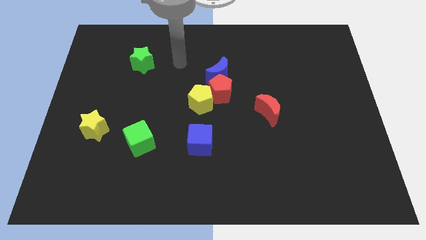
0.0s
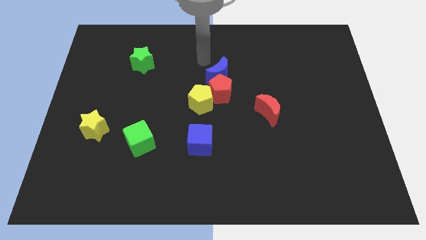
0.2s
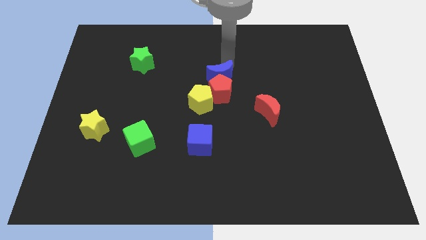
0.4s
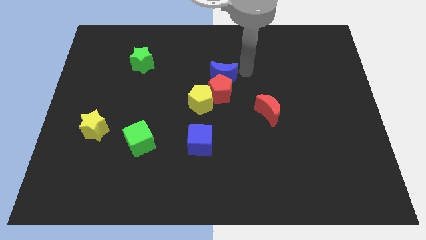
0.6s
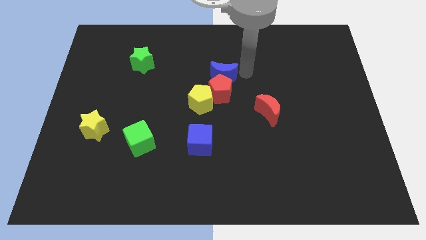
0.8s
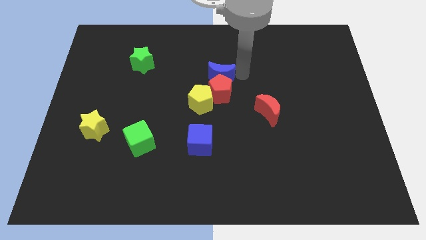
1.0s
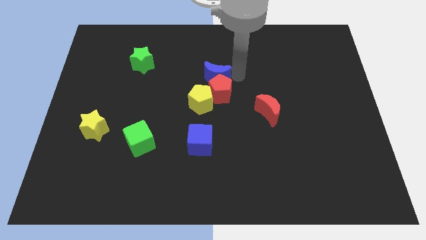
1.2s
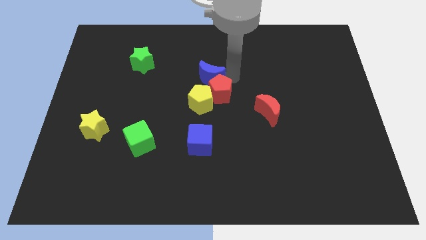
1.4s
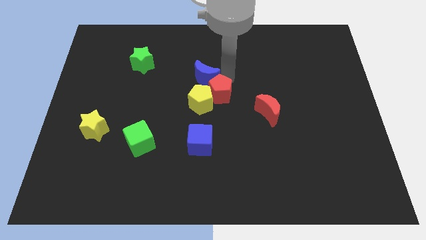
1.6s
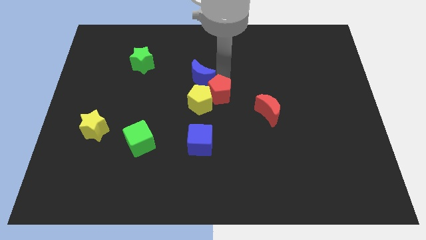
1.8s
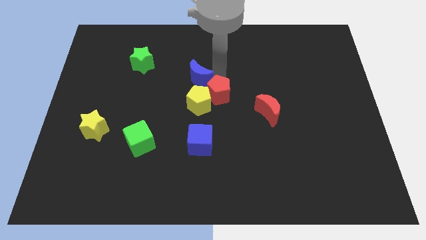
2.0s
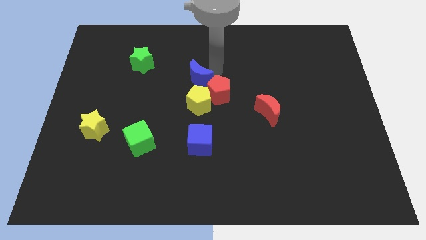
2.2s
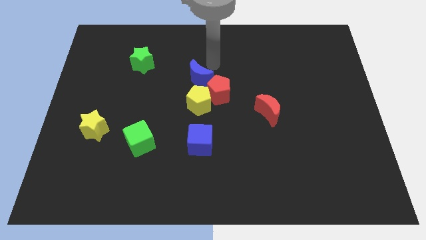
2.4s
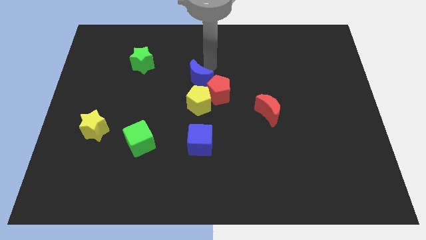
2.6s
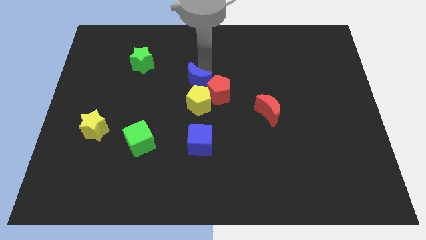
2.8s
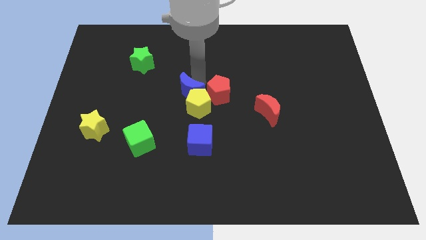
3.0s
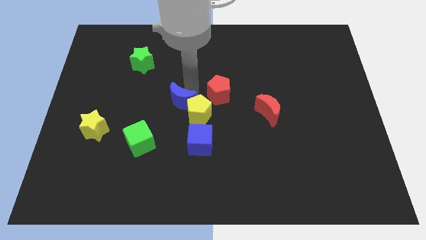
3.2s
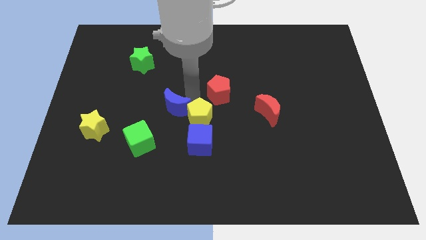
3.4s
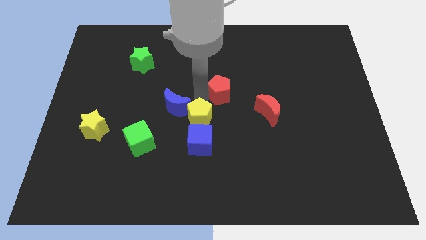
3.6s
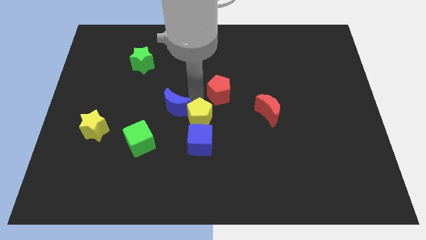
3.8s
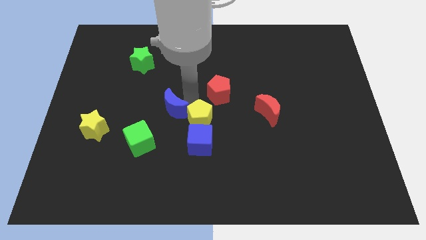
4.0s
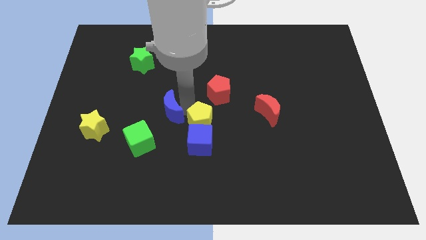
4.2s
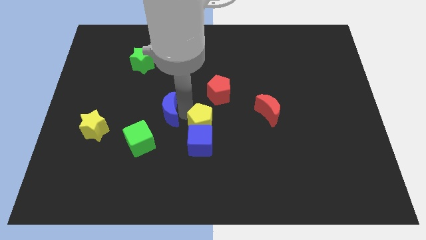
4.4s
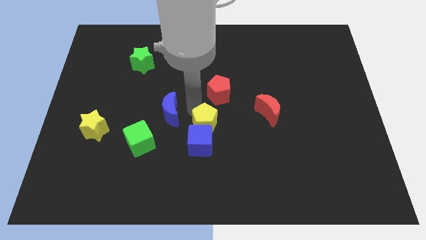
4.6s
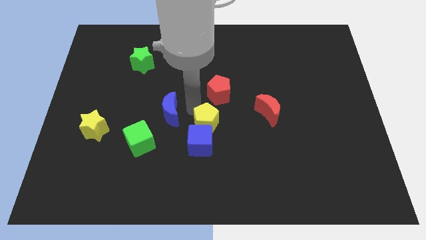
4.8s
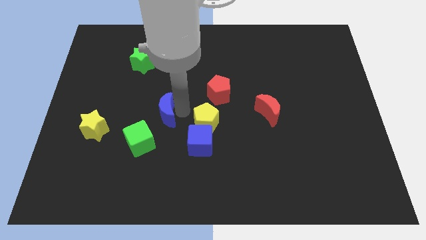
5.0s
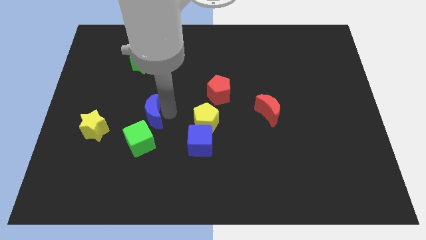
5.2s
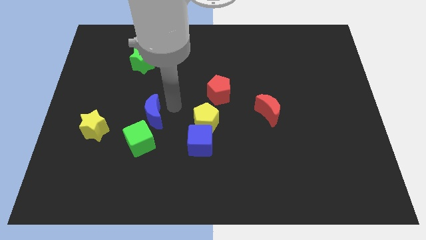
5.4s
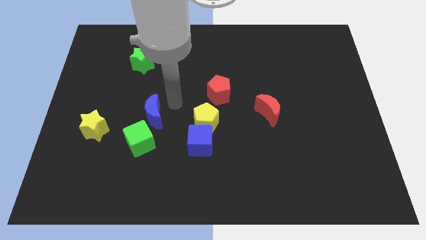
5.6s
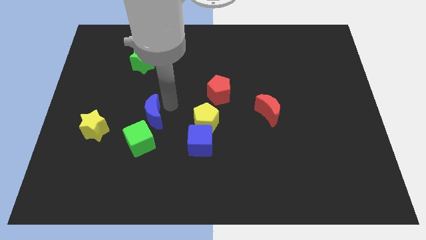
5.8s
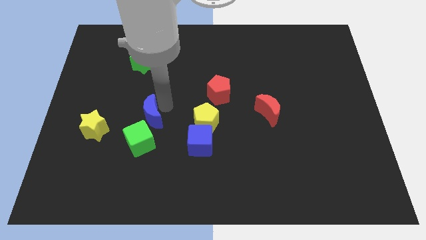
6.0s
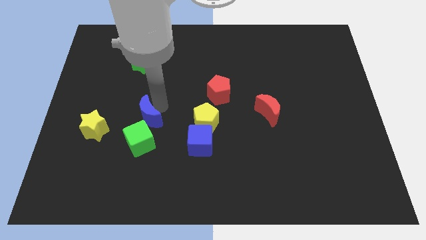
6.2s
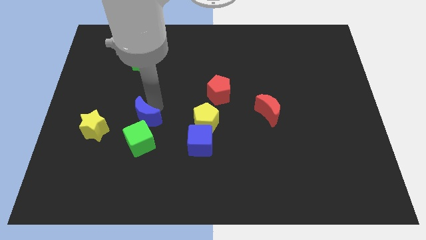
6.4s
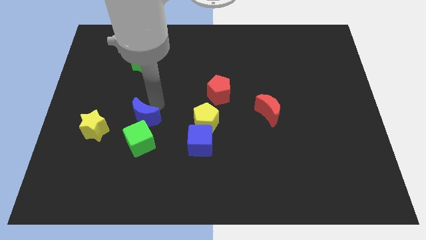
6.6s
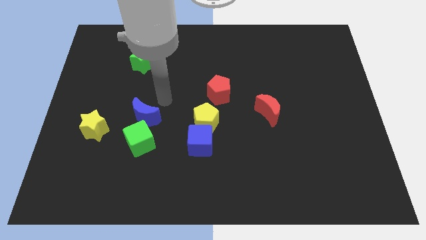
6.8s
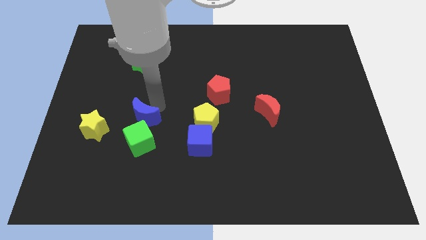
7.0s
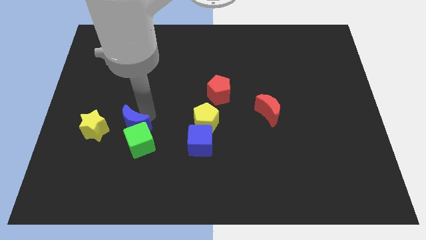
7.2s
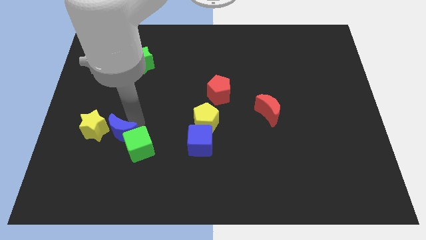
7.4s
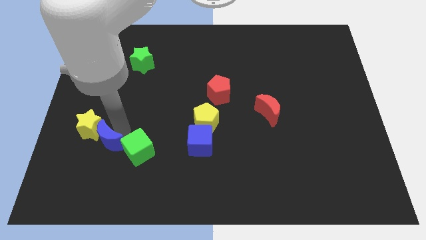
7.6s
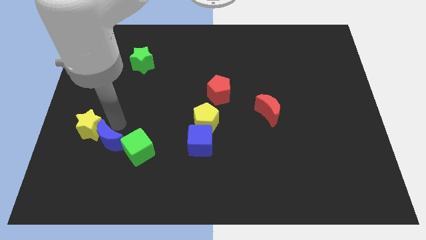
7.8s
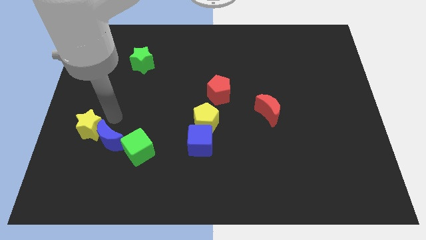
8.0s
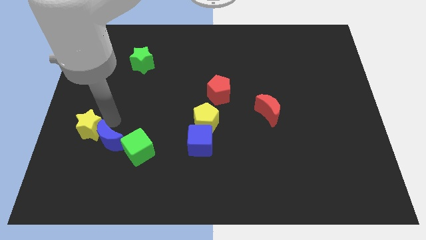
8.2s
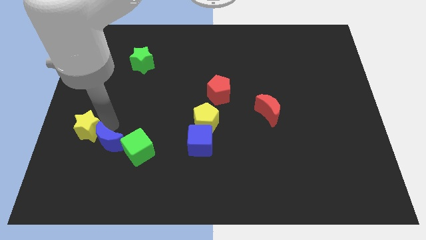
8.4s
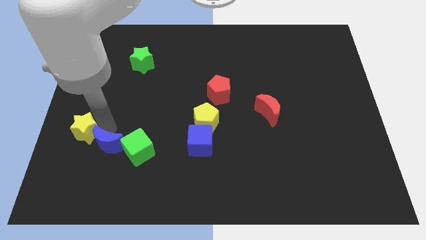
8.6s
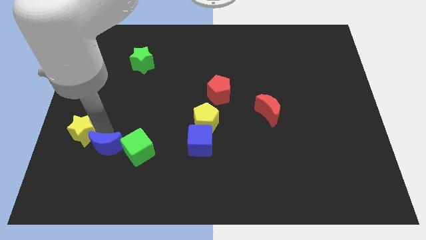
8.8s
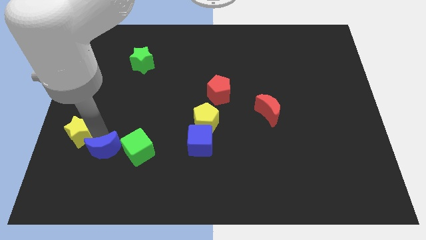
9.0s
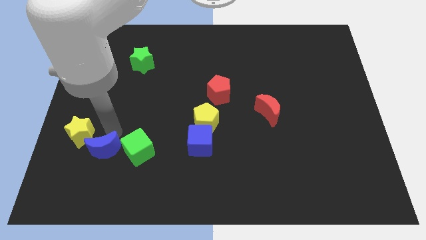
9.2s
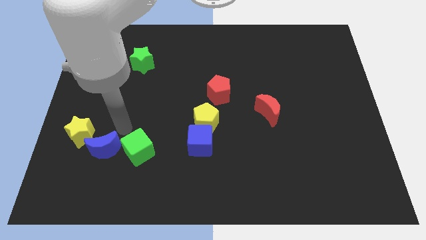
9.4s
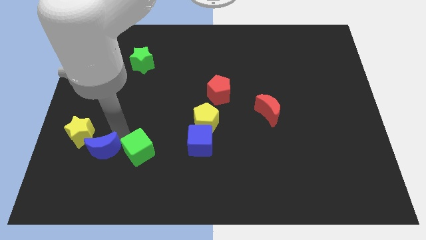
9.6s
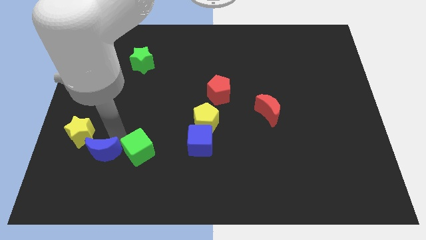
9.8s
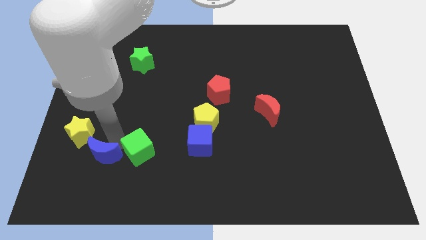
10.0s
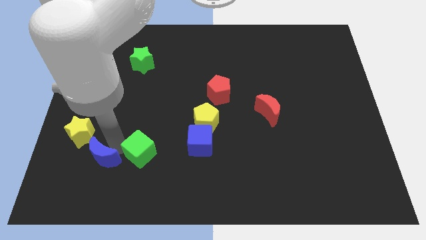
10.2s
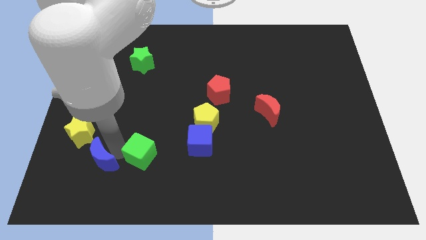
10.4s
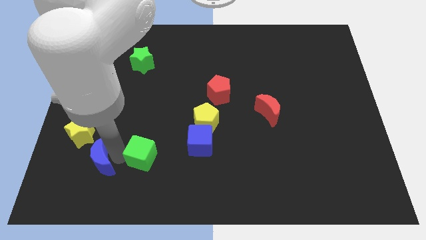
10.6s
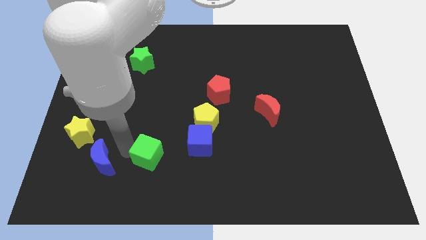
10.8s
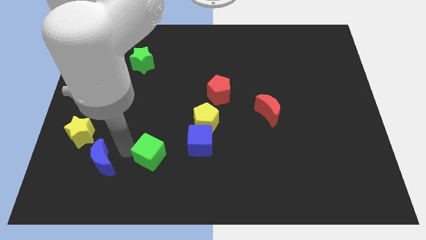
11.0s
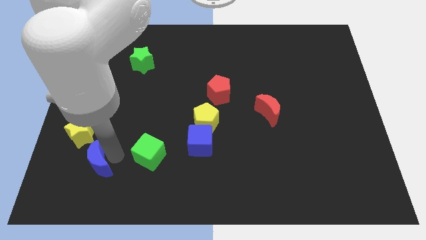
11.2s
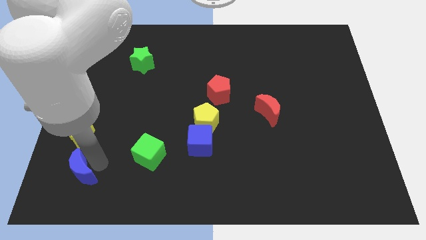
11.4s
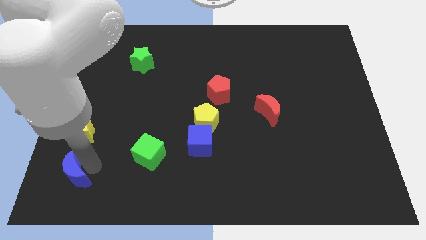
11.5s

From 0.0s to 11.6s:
put the blue moon to the bottom left of the board

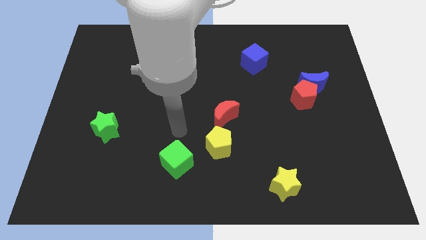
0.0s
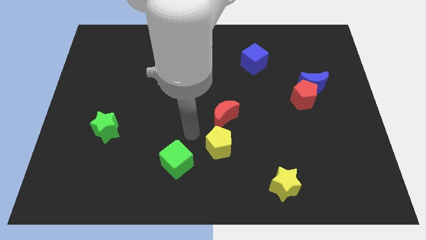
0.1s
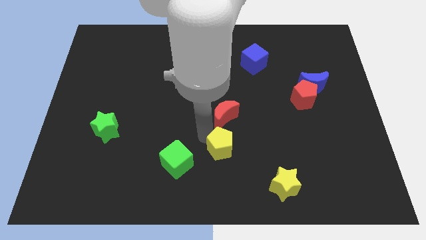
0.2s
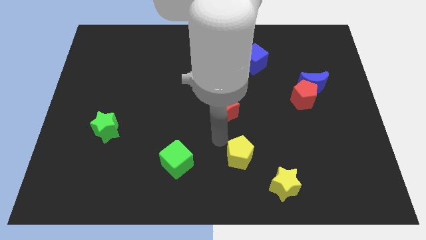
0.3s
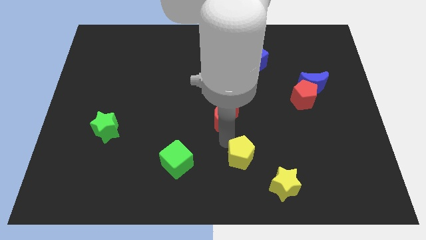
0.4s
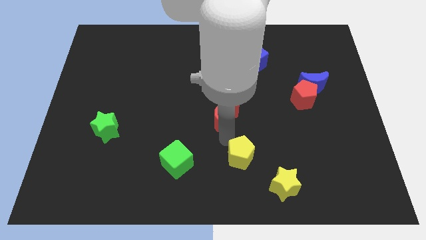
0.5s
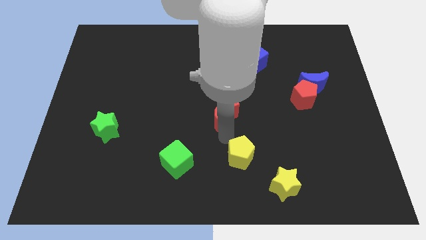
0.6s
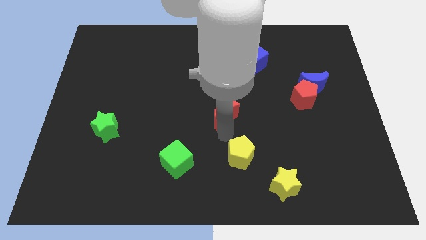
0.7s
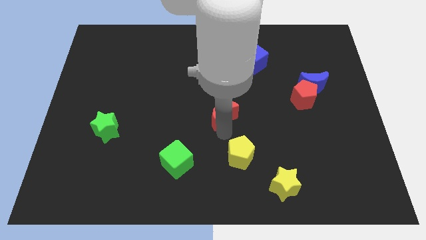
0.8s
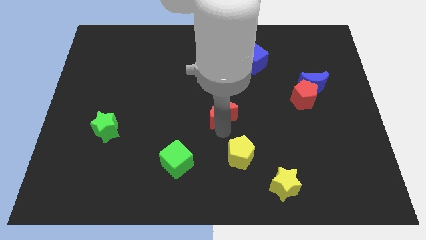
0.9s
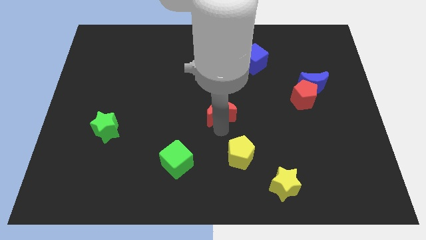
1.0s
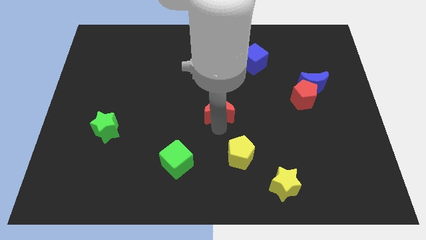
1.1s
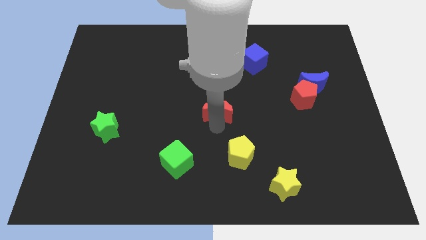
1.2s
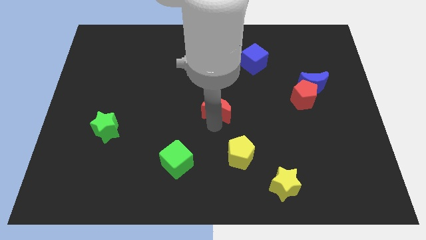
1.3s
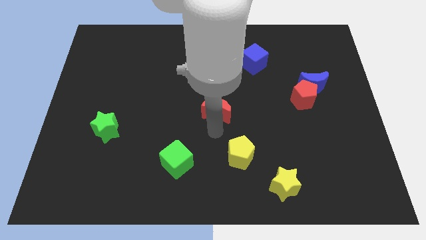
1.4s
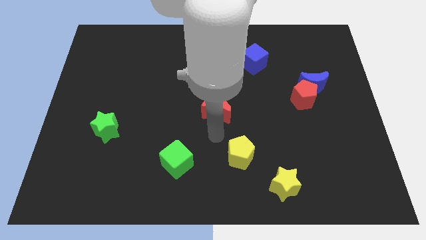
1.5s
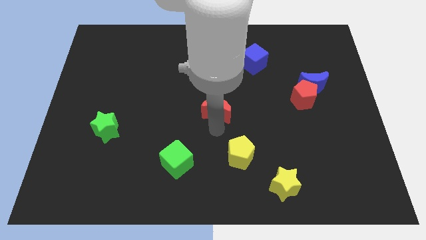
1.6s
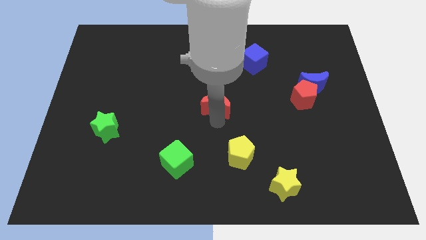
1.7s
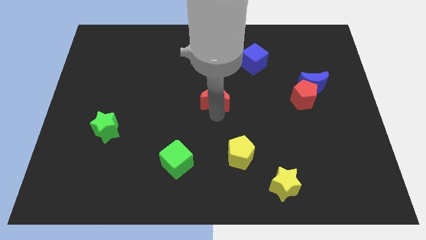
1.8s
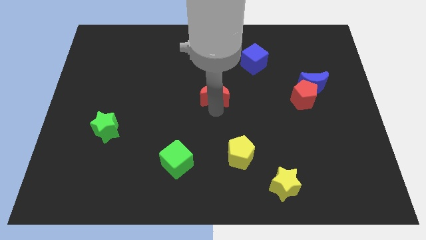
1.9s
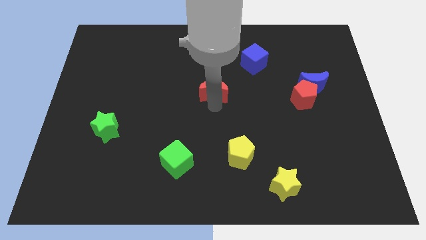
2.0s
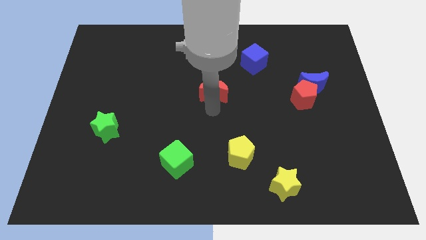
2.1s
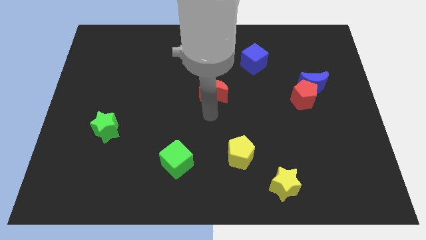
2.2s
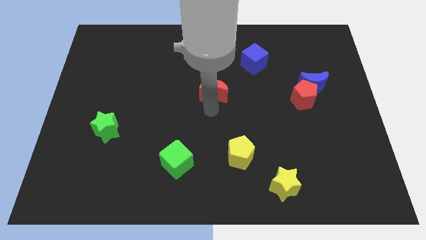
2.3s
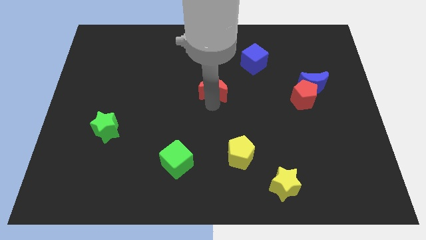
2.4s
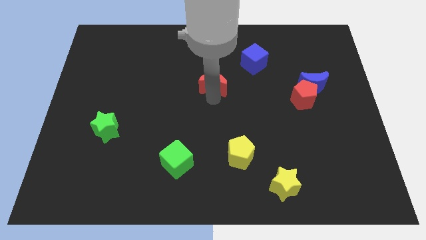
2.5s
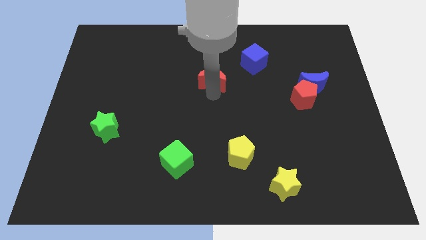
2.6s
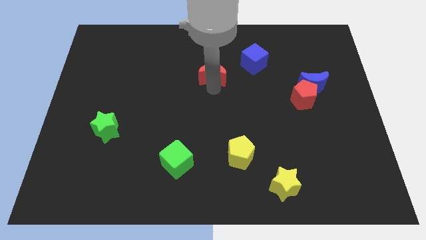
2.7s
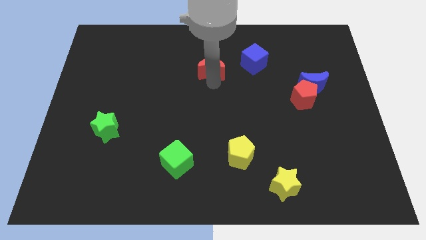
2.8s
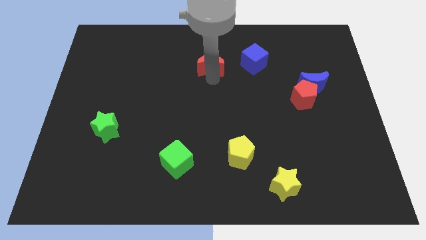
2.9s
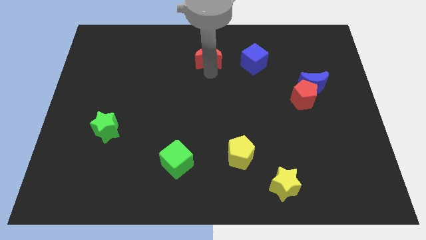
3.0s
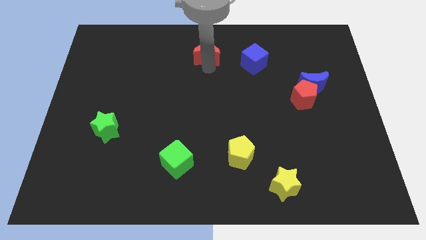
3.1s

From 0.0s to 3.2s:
push the red moon to the top side
